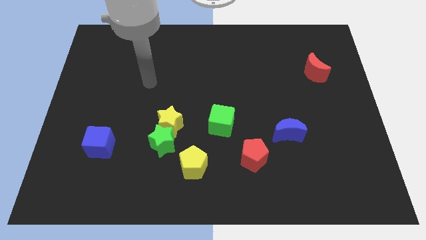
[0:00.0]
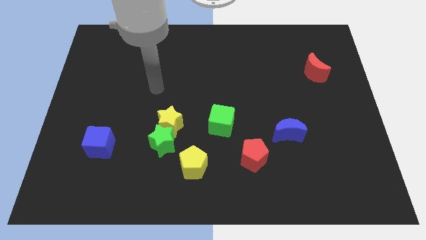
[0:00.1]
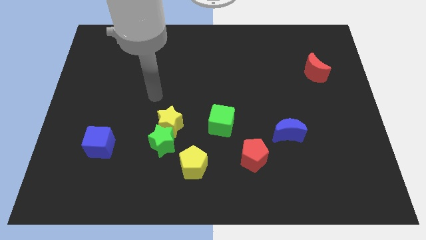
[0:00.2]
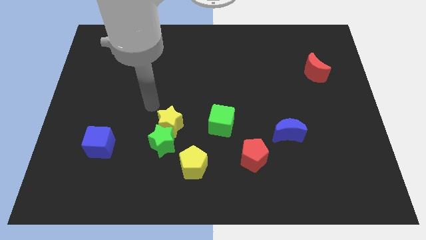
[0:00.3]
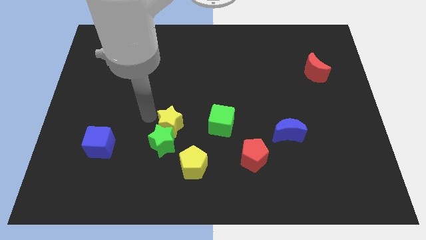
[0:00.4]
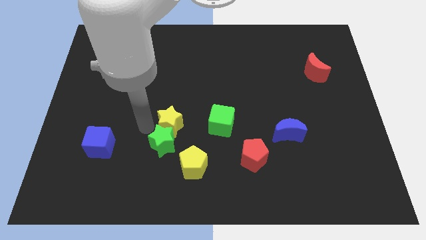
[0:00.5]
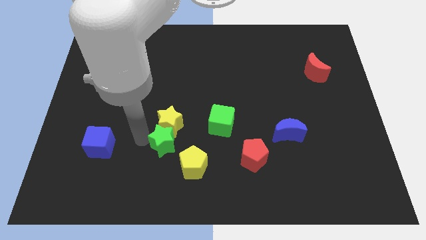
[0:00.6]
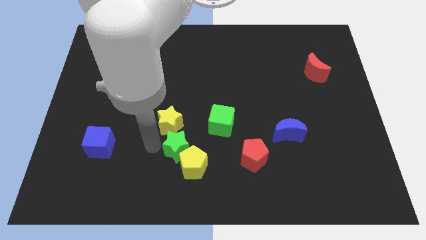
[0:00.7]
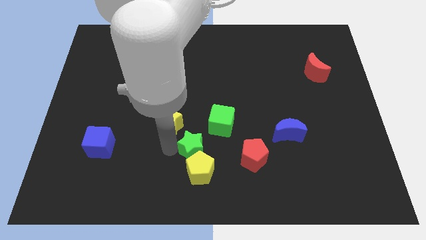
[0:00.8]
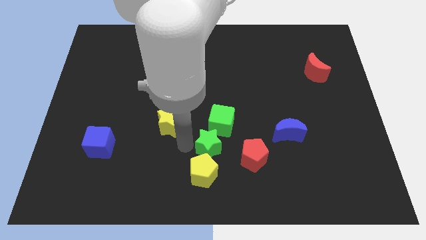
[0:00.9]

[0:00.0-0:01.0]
pull the yellow star apart from the green star

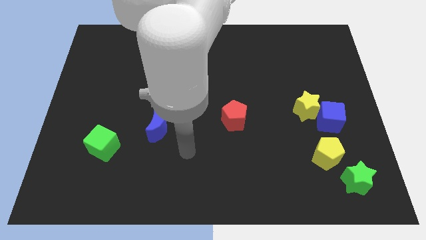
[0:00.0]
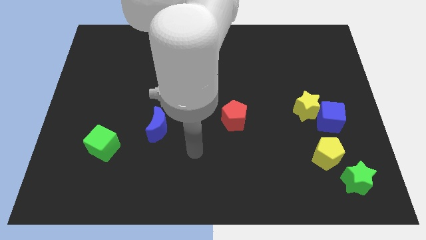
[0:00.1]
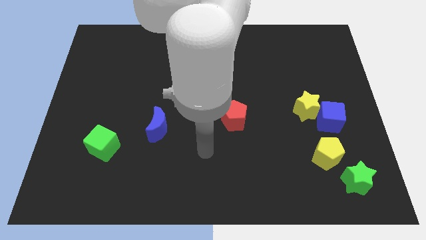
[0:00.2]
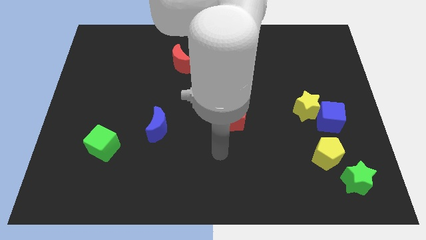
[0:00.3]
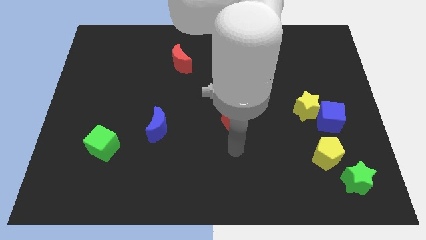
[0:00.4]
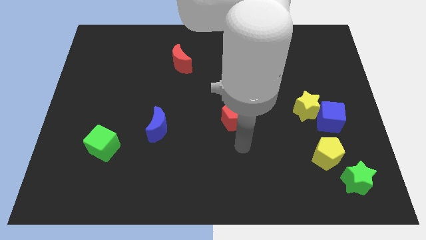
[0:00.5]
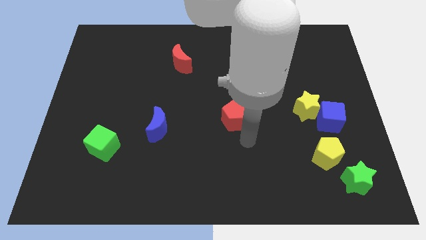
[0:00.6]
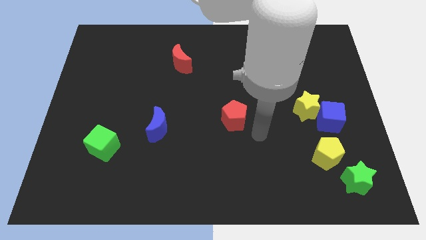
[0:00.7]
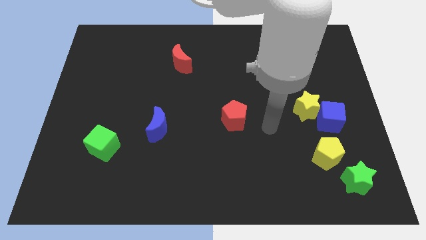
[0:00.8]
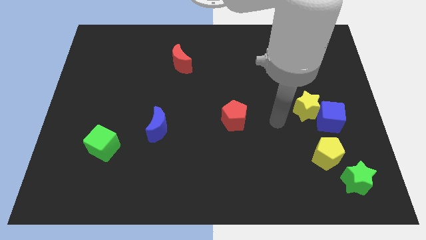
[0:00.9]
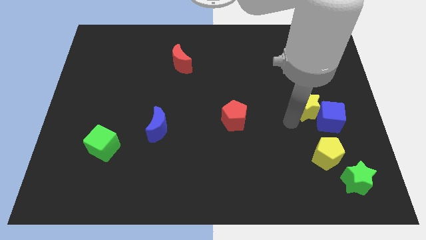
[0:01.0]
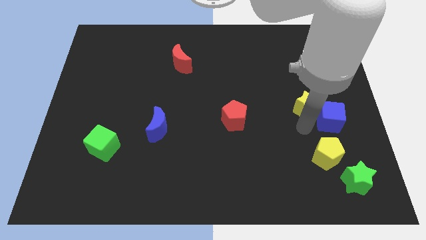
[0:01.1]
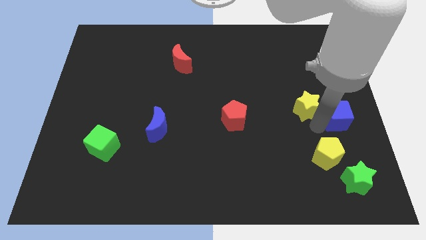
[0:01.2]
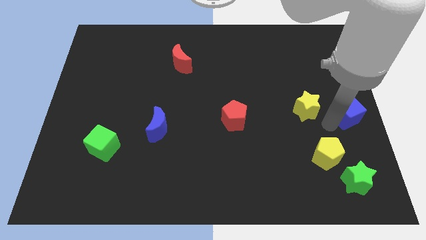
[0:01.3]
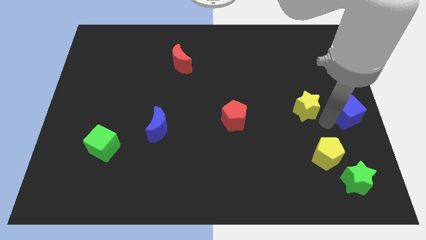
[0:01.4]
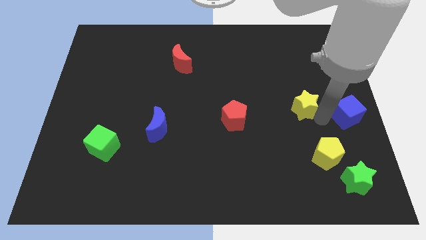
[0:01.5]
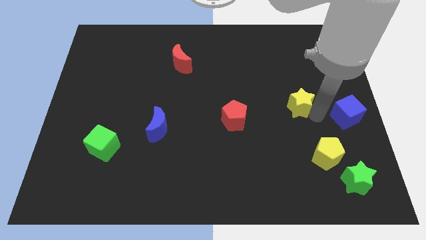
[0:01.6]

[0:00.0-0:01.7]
separate the yellow star from the blue cube

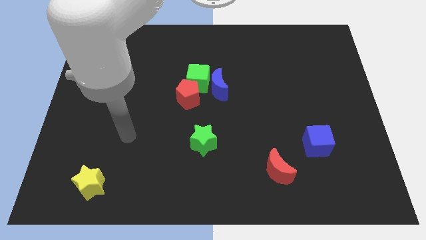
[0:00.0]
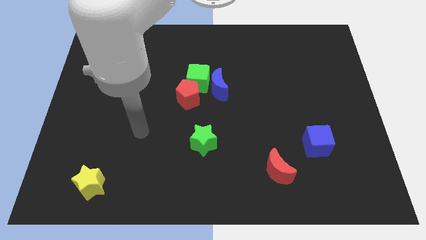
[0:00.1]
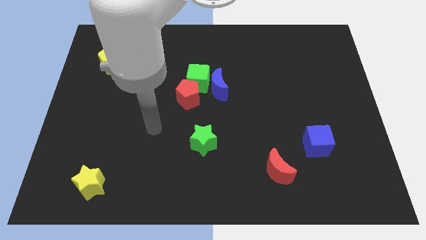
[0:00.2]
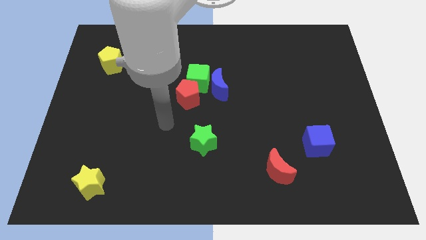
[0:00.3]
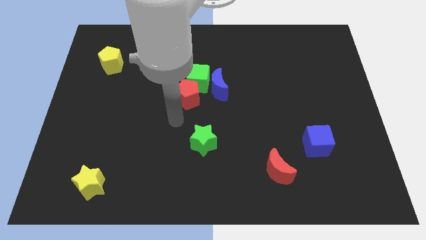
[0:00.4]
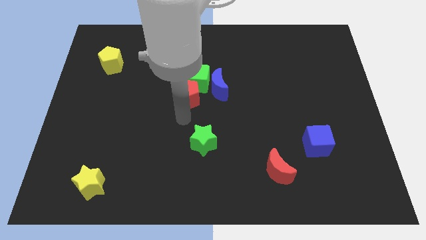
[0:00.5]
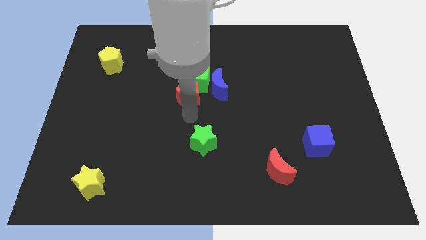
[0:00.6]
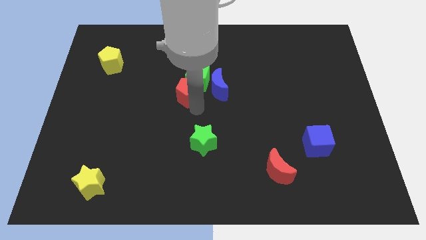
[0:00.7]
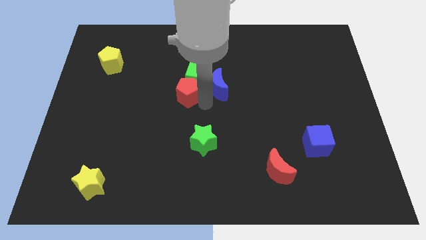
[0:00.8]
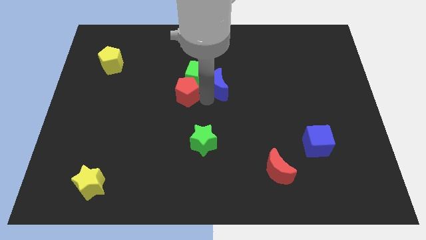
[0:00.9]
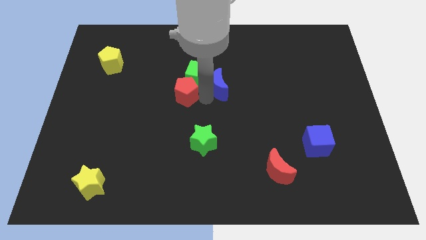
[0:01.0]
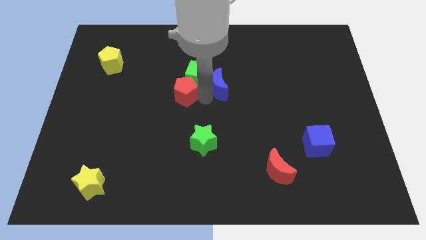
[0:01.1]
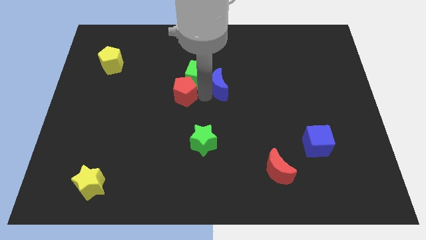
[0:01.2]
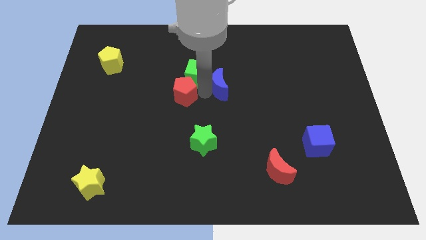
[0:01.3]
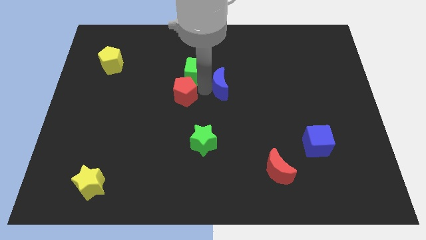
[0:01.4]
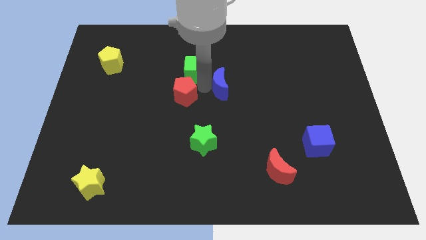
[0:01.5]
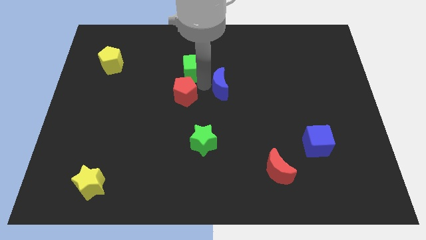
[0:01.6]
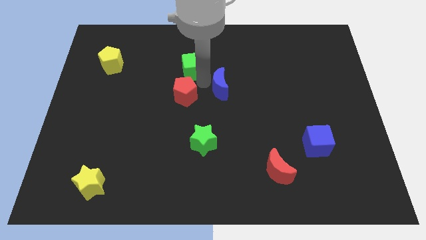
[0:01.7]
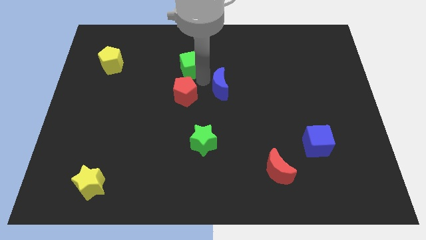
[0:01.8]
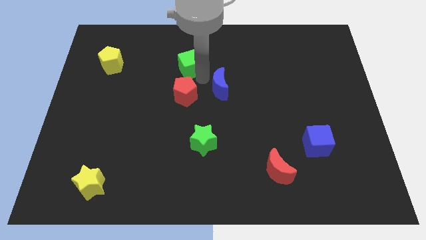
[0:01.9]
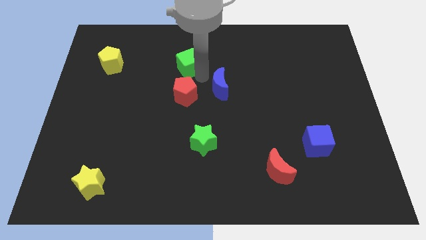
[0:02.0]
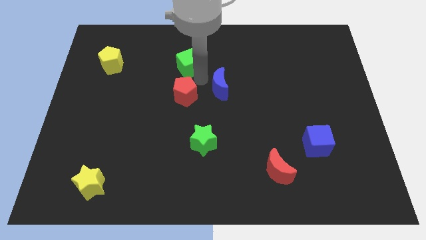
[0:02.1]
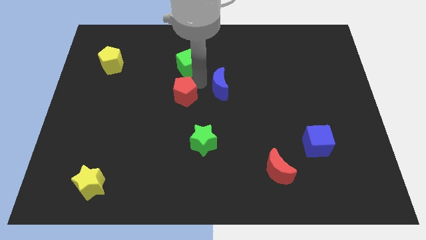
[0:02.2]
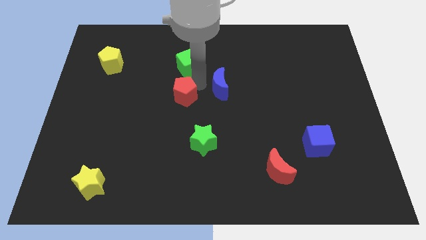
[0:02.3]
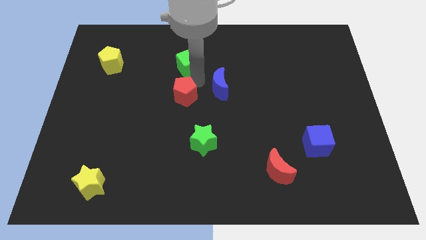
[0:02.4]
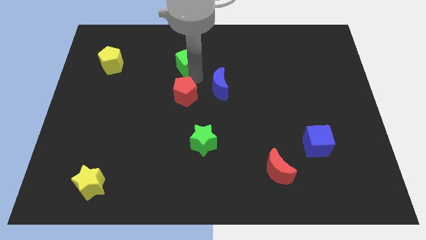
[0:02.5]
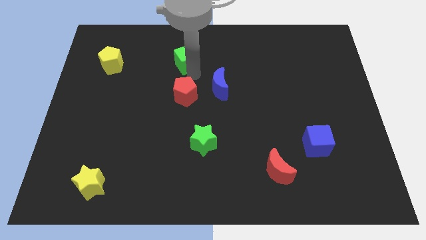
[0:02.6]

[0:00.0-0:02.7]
separate the green cube from the blue moon and red pentagon

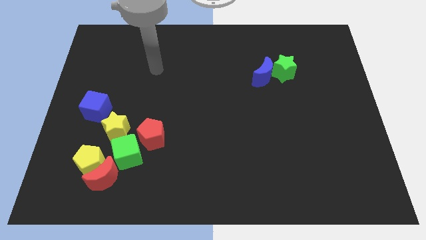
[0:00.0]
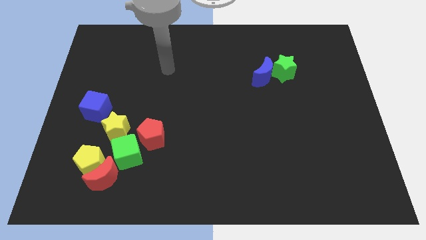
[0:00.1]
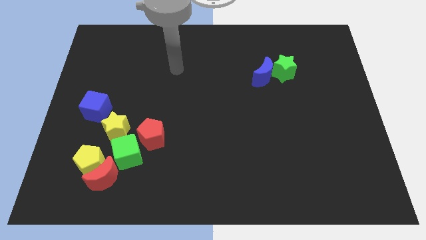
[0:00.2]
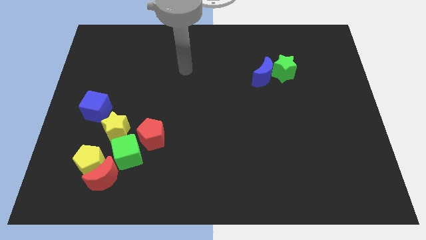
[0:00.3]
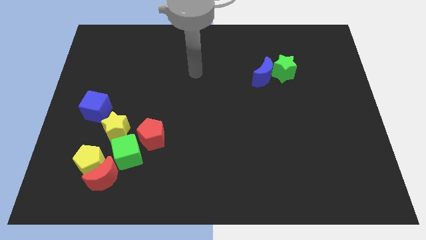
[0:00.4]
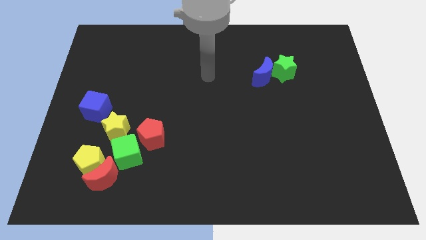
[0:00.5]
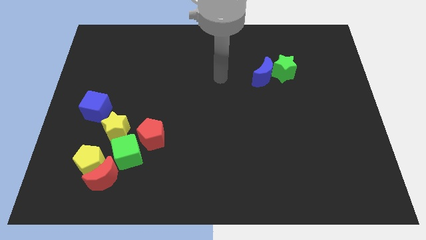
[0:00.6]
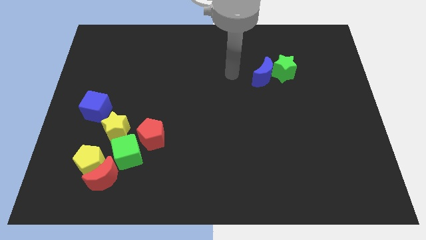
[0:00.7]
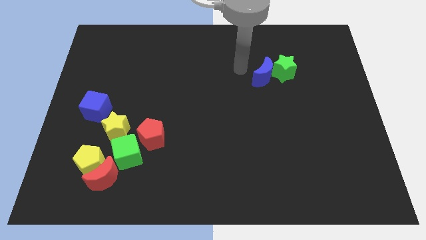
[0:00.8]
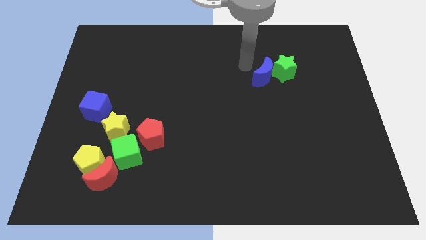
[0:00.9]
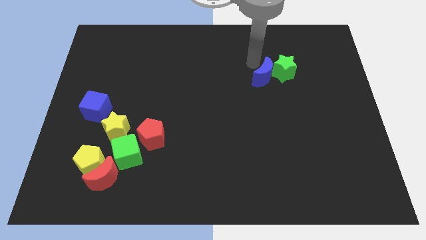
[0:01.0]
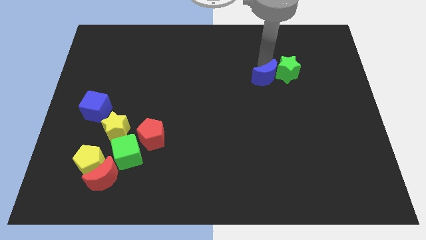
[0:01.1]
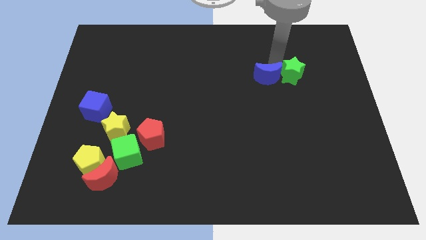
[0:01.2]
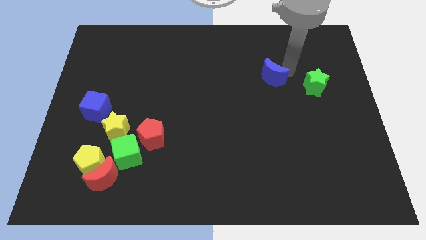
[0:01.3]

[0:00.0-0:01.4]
move the blue moon away from the green star

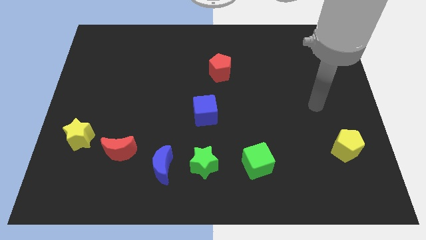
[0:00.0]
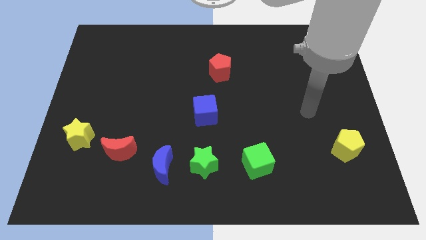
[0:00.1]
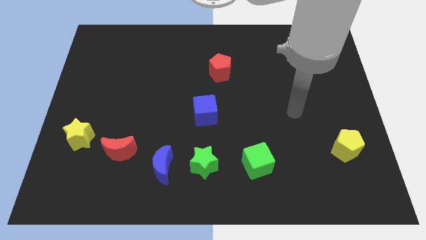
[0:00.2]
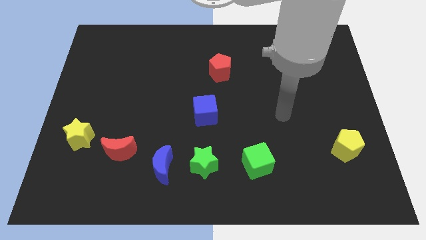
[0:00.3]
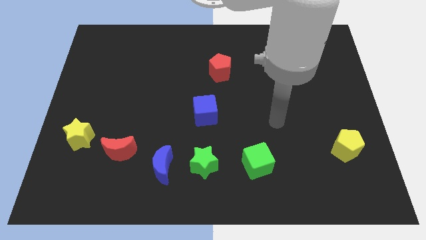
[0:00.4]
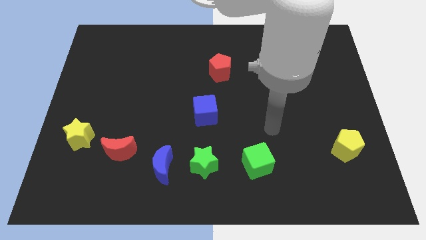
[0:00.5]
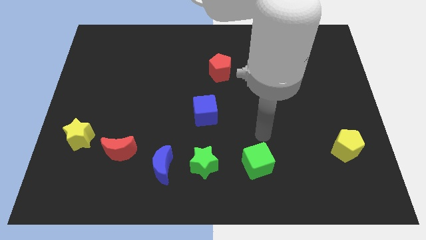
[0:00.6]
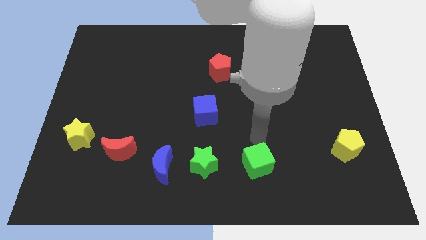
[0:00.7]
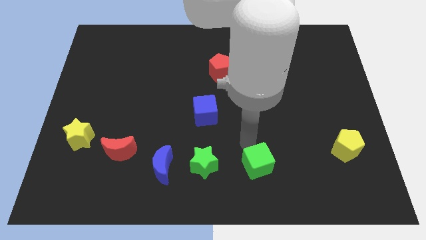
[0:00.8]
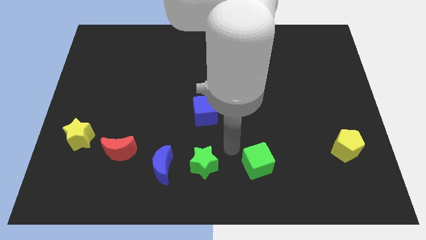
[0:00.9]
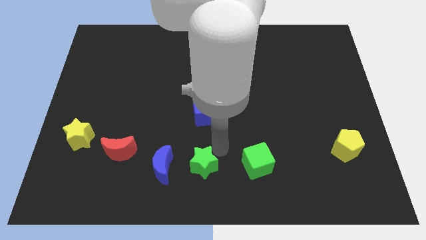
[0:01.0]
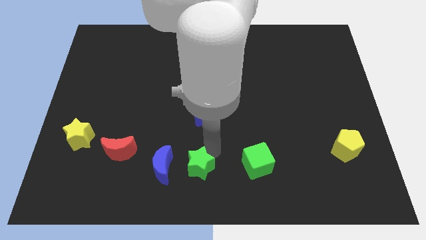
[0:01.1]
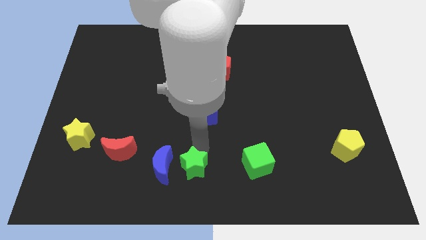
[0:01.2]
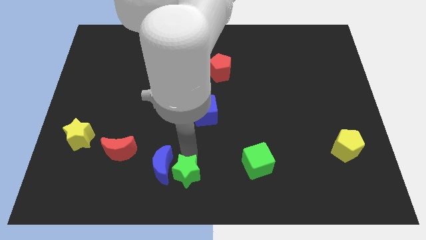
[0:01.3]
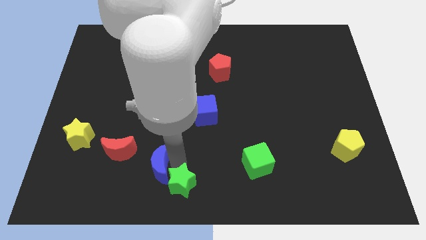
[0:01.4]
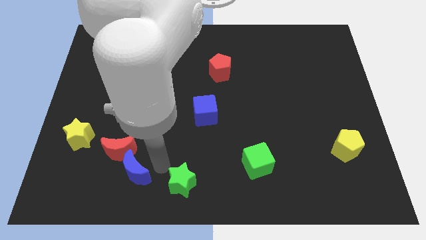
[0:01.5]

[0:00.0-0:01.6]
separate the green star from the blue moon

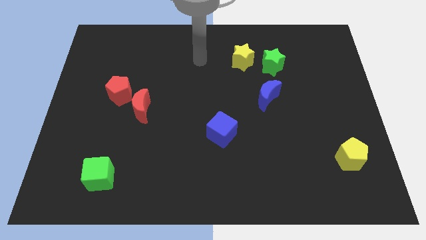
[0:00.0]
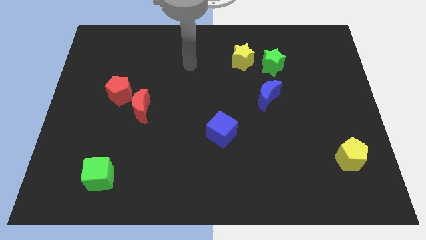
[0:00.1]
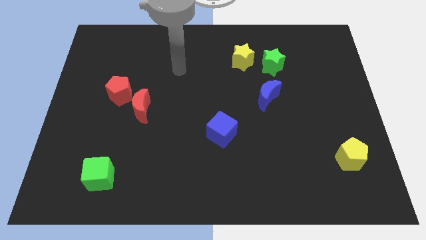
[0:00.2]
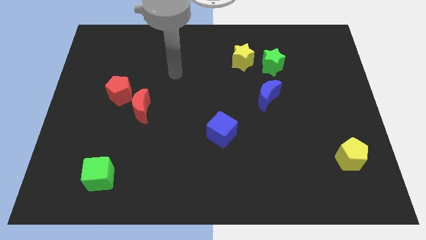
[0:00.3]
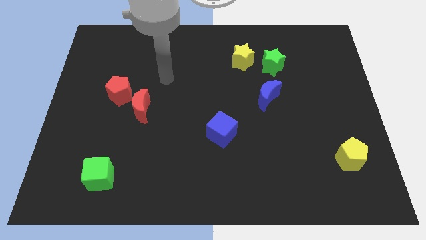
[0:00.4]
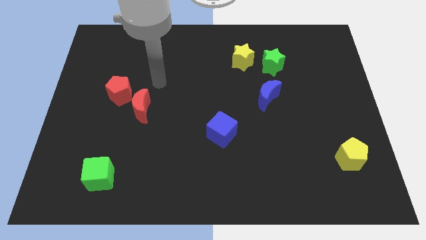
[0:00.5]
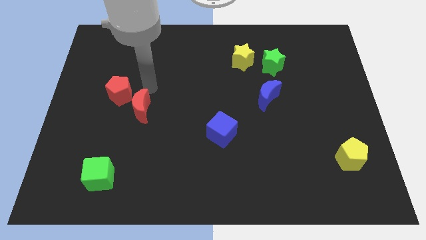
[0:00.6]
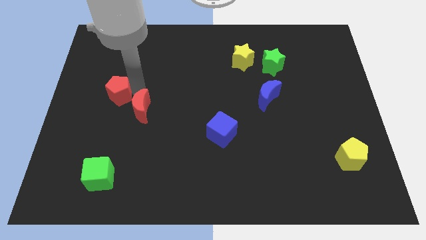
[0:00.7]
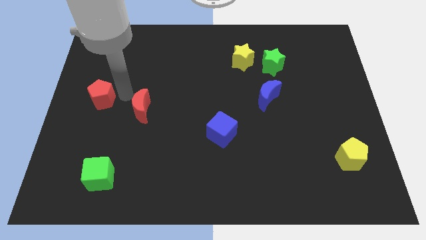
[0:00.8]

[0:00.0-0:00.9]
separate the red moon from the red pentagon
